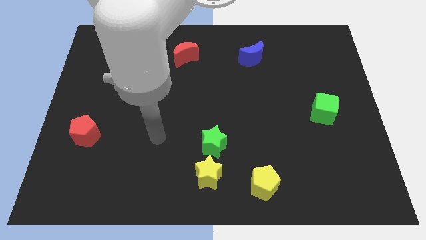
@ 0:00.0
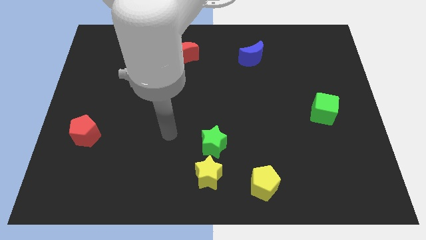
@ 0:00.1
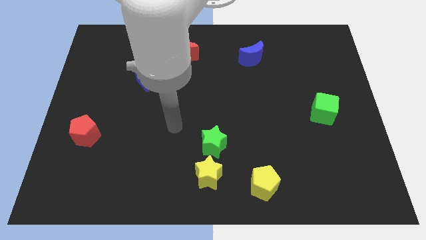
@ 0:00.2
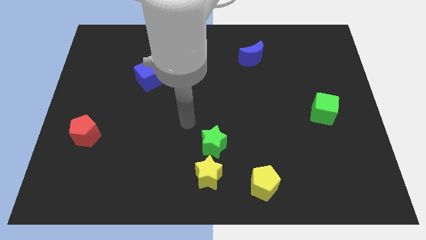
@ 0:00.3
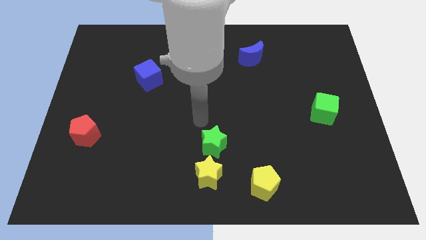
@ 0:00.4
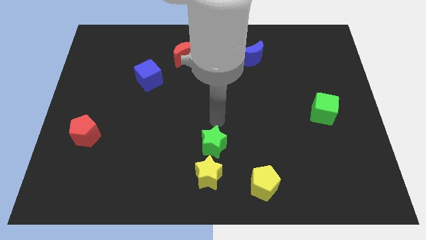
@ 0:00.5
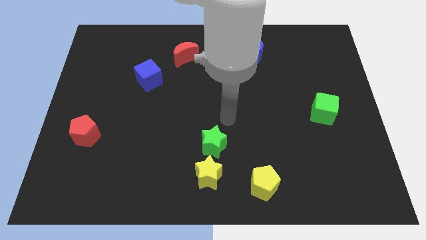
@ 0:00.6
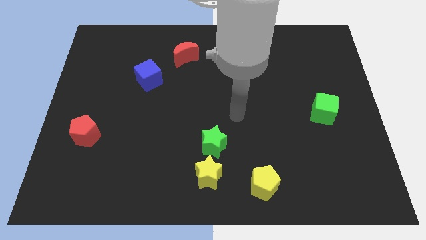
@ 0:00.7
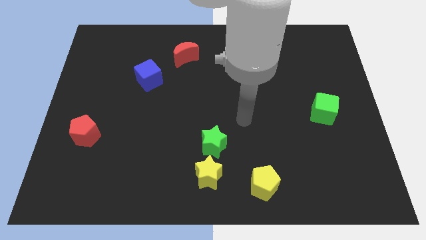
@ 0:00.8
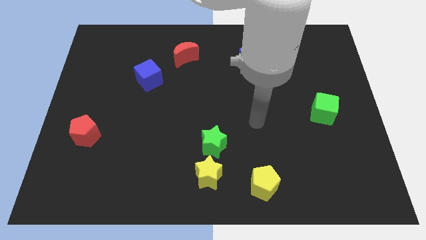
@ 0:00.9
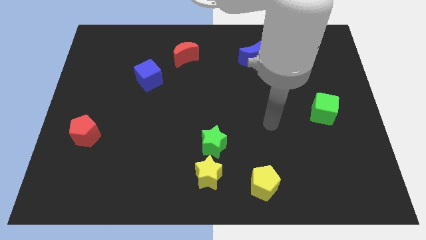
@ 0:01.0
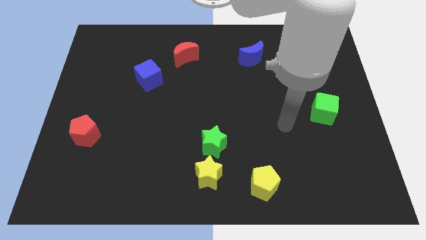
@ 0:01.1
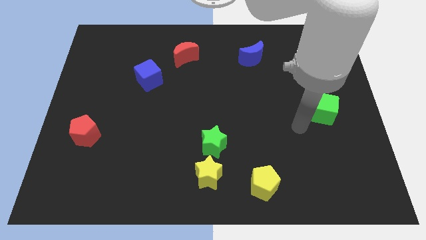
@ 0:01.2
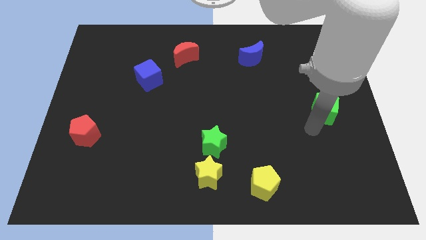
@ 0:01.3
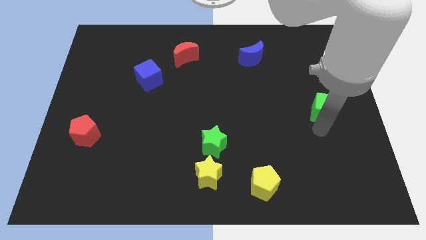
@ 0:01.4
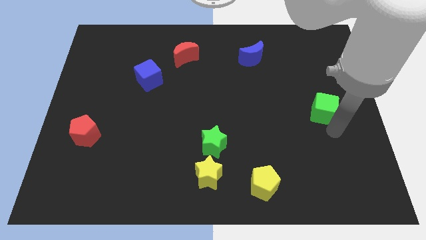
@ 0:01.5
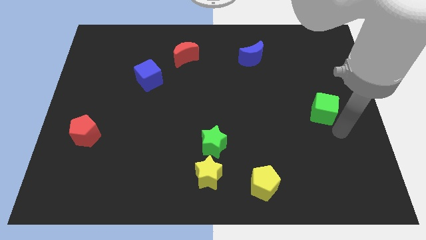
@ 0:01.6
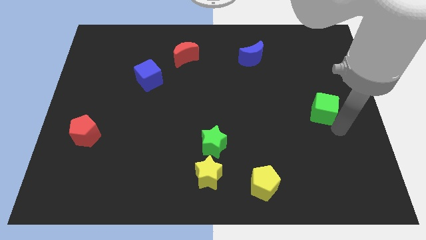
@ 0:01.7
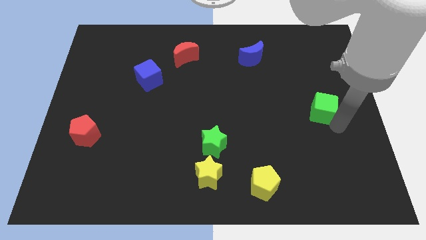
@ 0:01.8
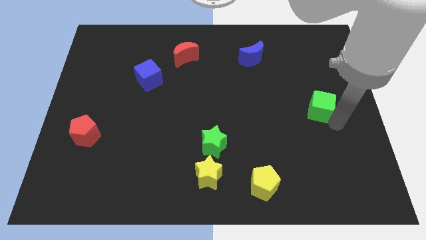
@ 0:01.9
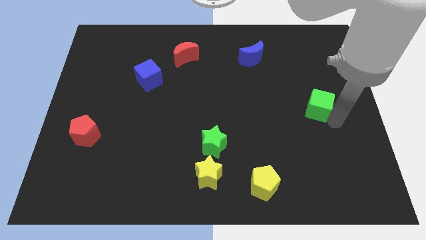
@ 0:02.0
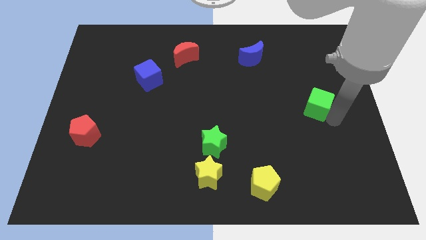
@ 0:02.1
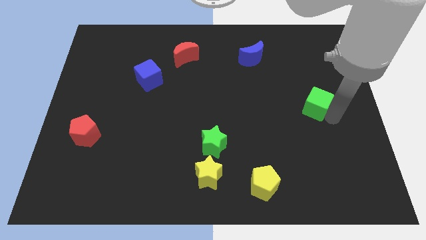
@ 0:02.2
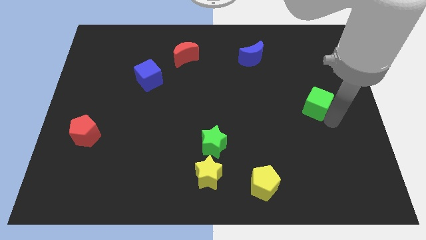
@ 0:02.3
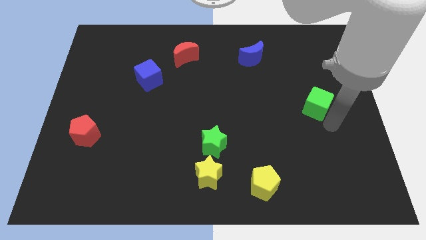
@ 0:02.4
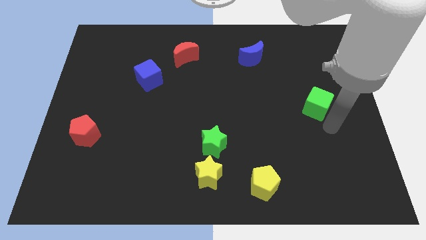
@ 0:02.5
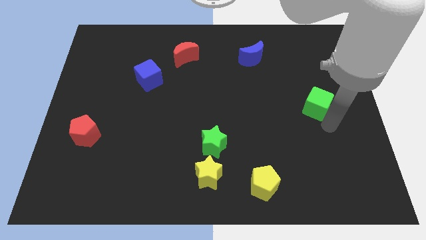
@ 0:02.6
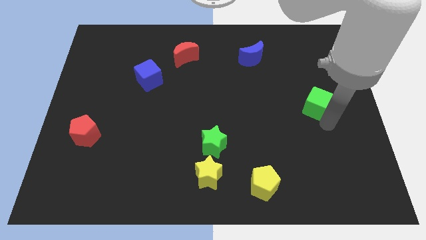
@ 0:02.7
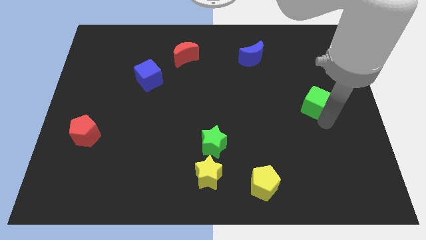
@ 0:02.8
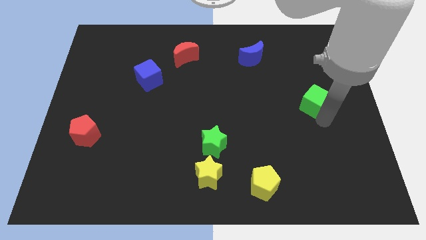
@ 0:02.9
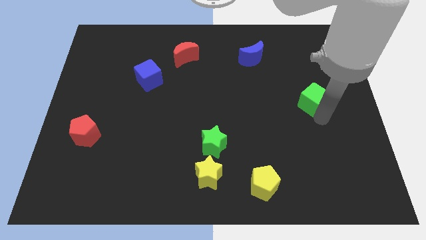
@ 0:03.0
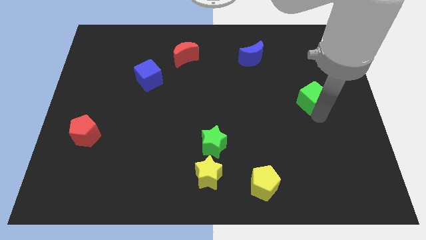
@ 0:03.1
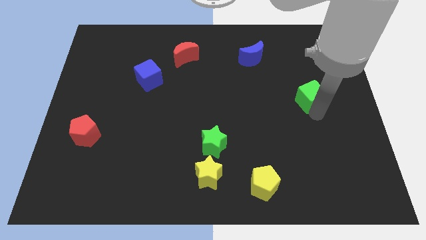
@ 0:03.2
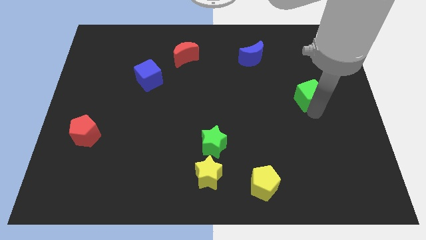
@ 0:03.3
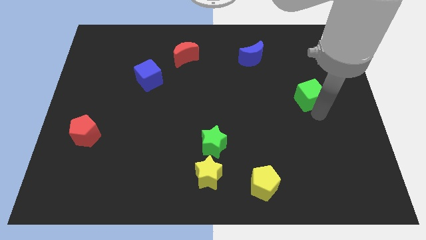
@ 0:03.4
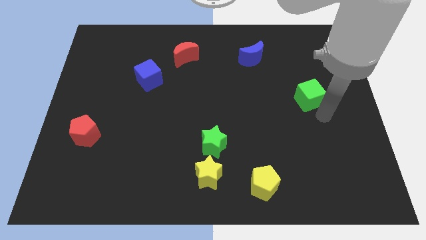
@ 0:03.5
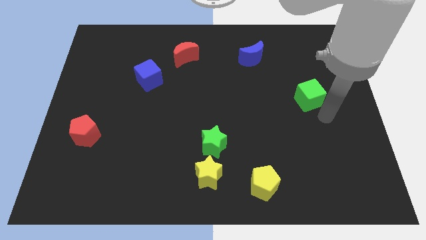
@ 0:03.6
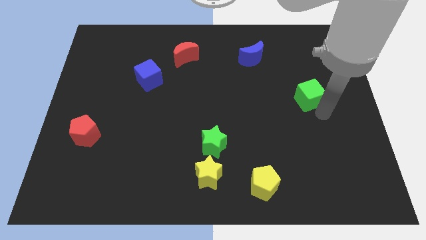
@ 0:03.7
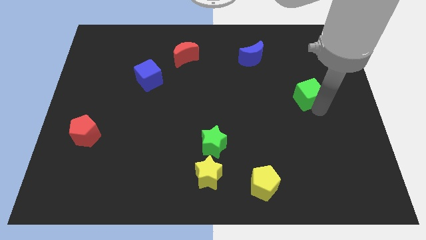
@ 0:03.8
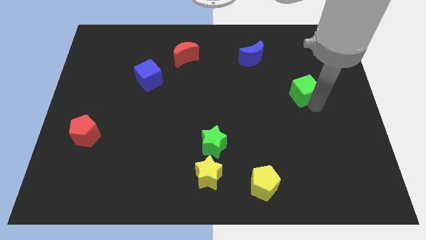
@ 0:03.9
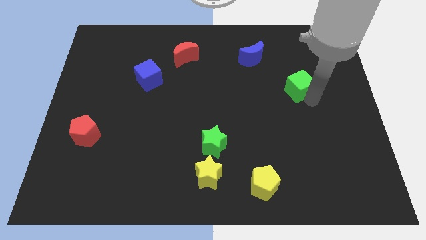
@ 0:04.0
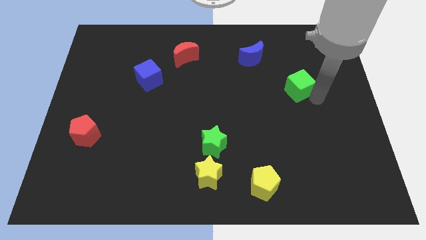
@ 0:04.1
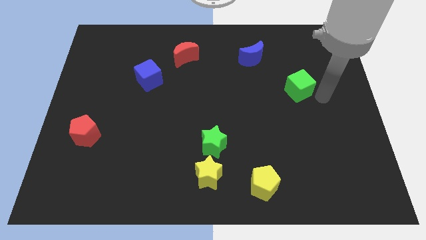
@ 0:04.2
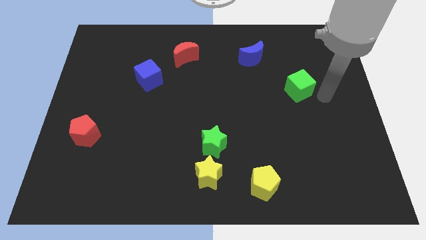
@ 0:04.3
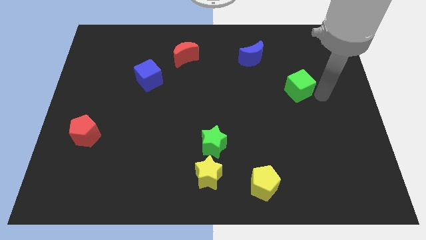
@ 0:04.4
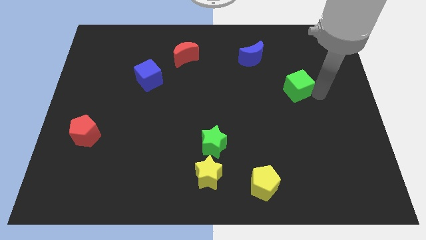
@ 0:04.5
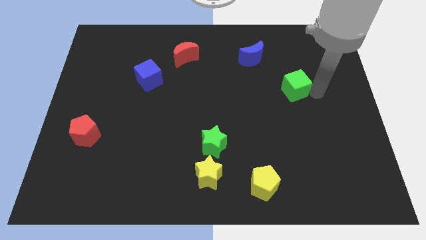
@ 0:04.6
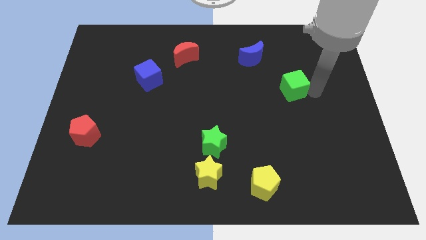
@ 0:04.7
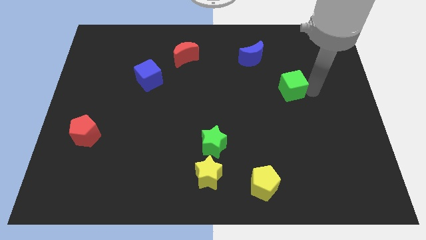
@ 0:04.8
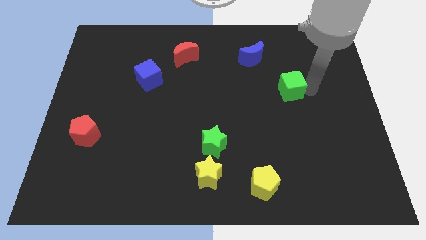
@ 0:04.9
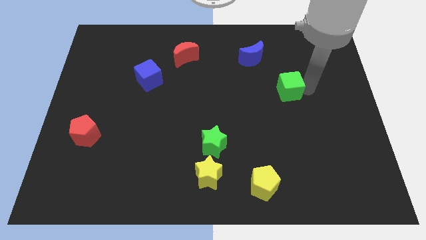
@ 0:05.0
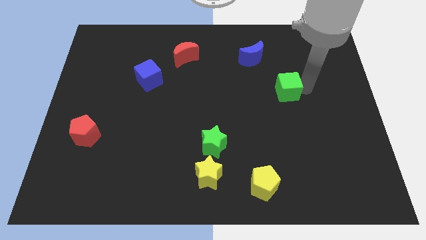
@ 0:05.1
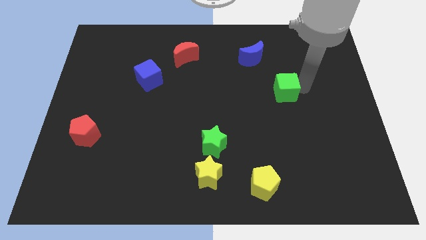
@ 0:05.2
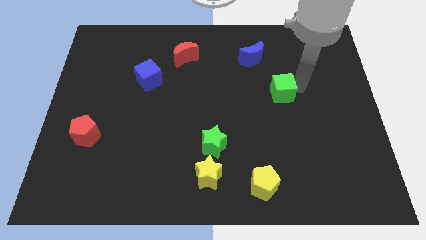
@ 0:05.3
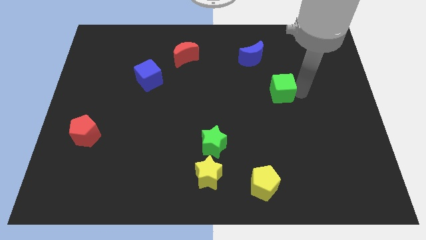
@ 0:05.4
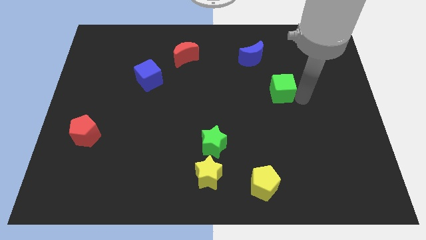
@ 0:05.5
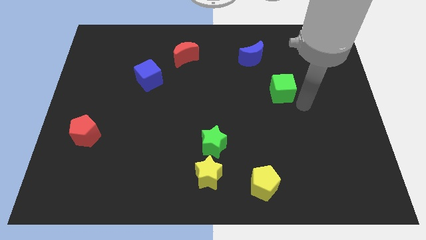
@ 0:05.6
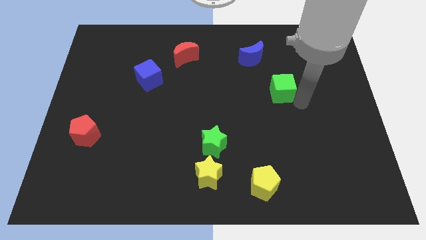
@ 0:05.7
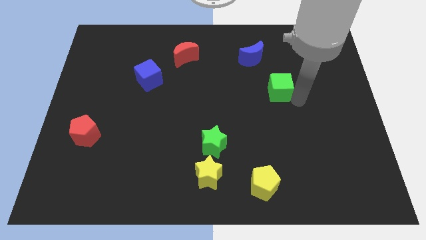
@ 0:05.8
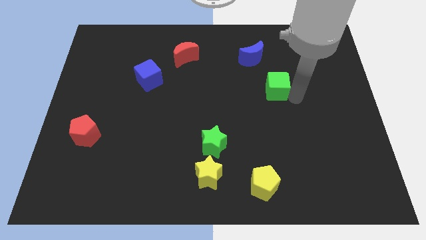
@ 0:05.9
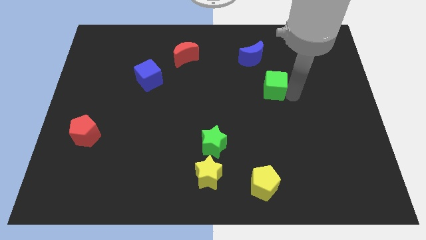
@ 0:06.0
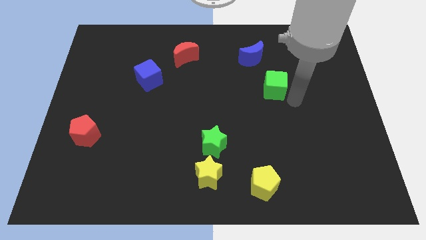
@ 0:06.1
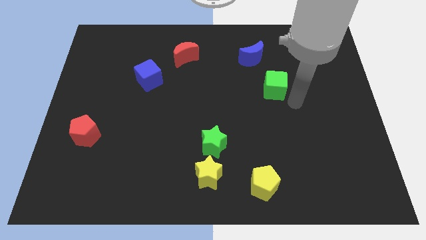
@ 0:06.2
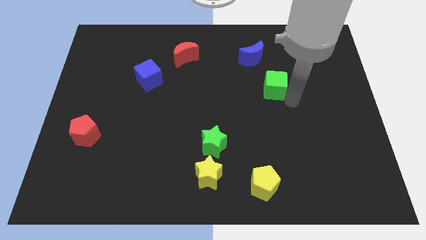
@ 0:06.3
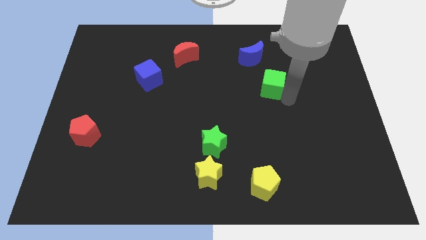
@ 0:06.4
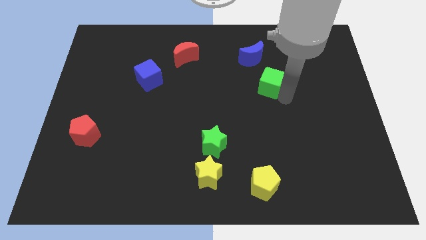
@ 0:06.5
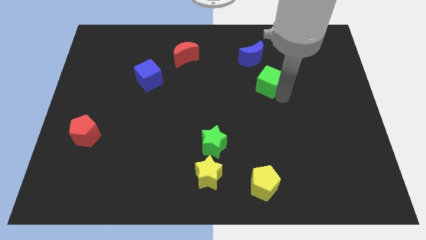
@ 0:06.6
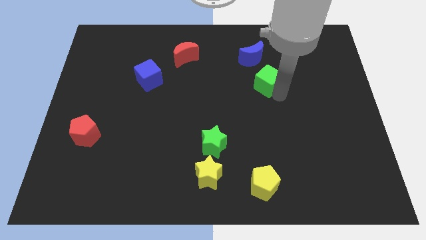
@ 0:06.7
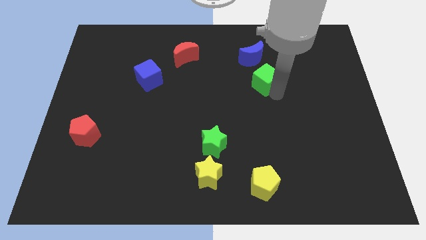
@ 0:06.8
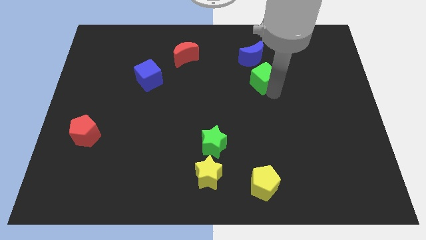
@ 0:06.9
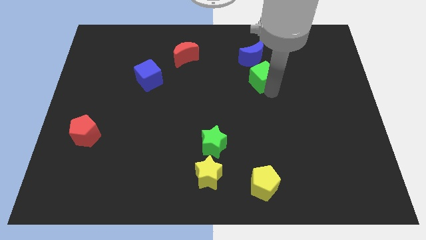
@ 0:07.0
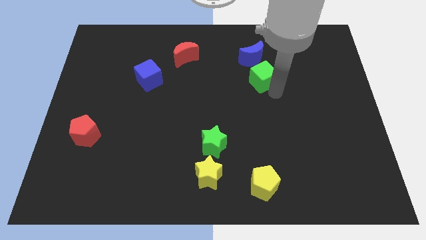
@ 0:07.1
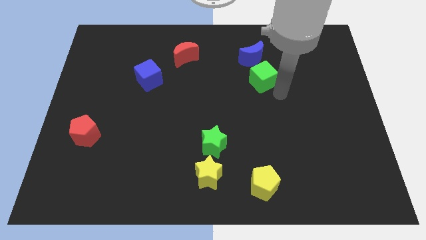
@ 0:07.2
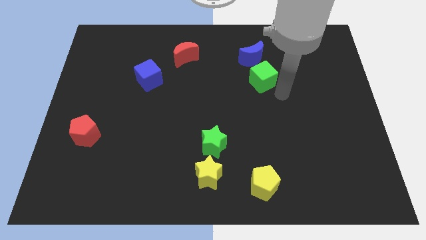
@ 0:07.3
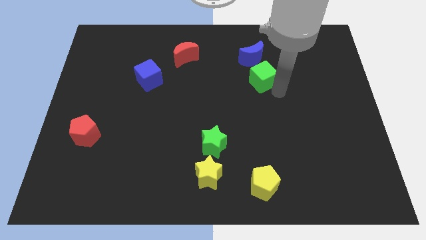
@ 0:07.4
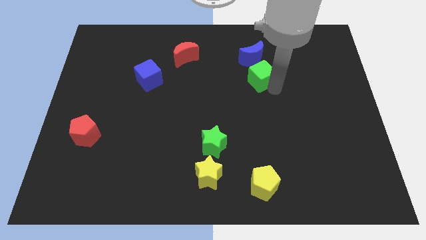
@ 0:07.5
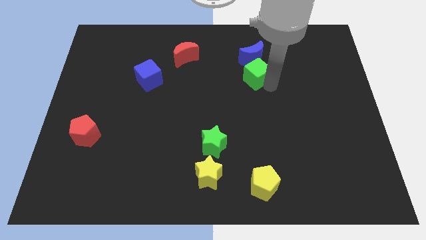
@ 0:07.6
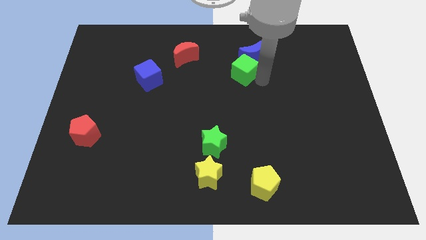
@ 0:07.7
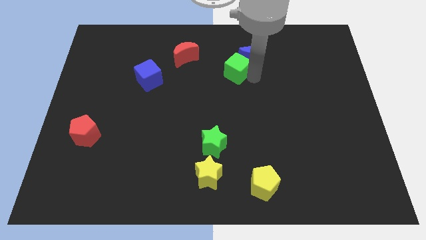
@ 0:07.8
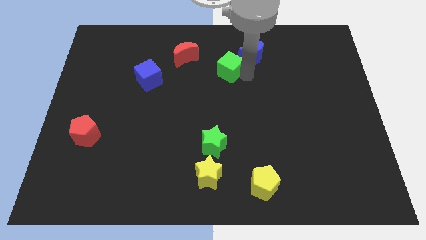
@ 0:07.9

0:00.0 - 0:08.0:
put the green cube just right of the red moon
